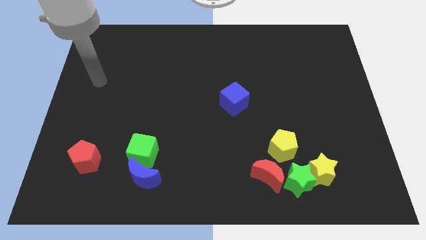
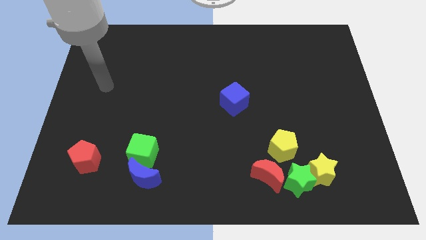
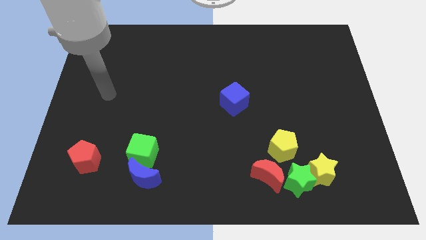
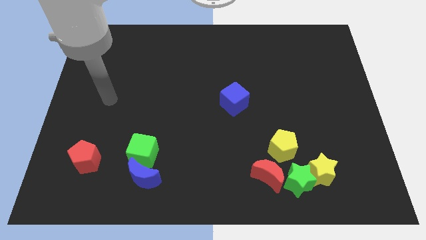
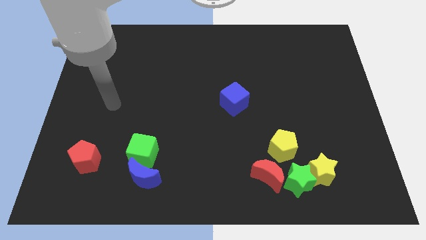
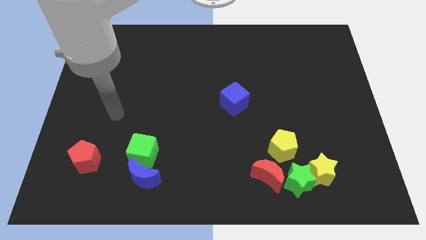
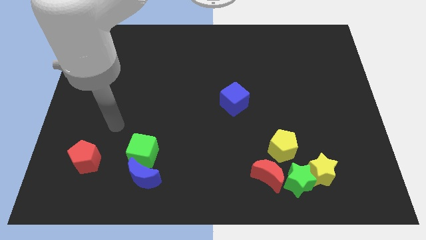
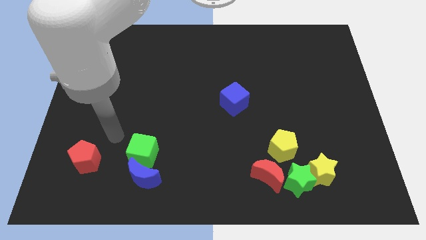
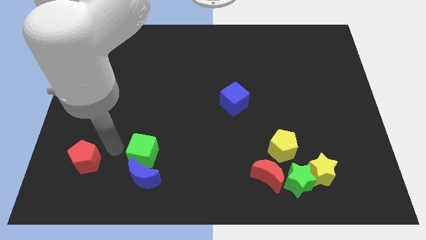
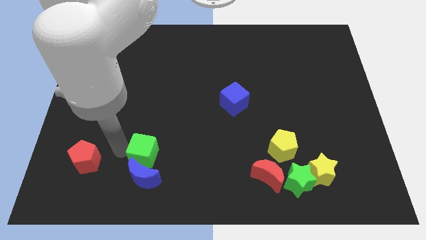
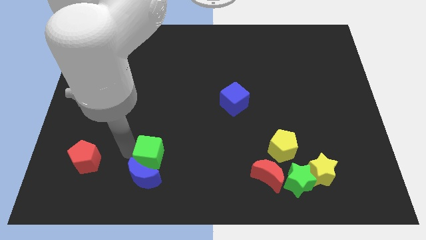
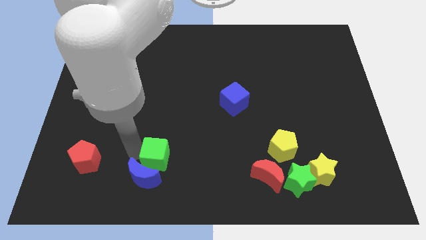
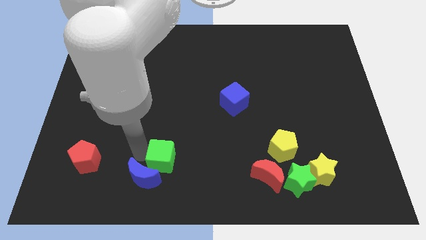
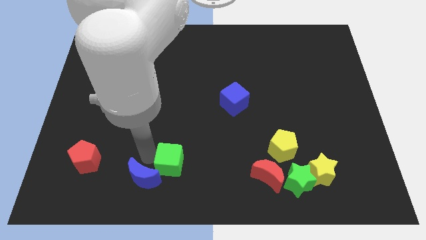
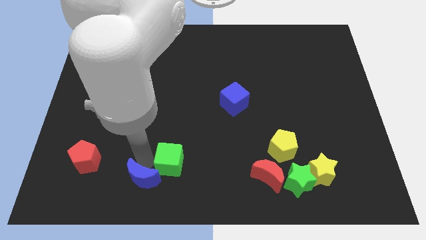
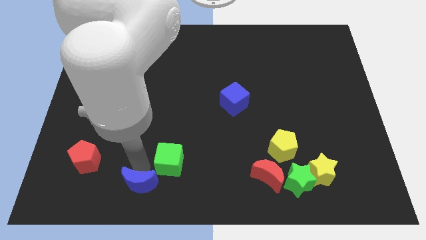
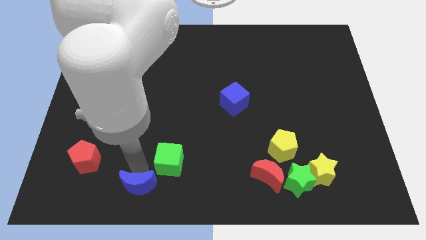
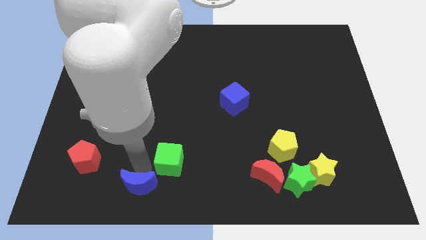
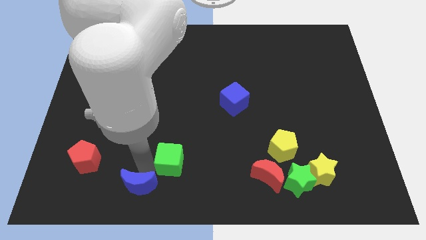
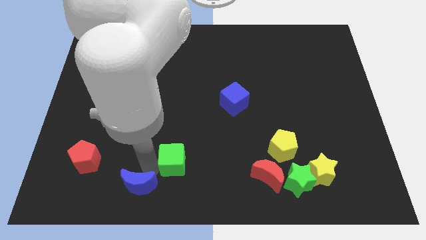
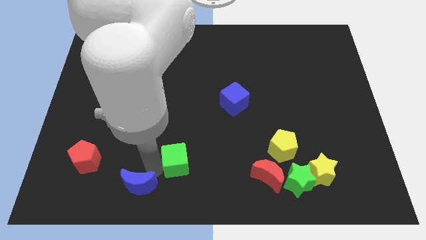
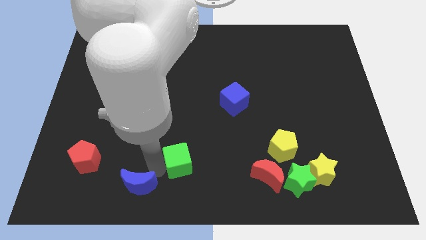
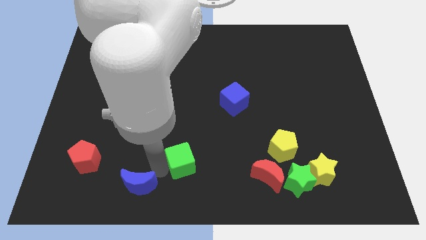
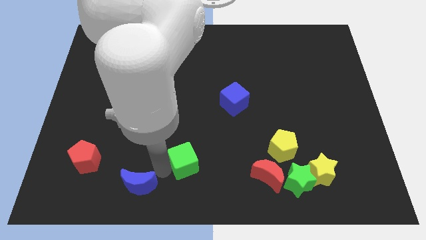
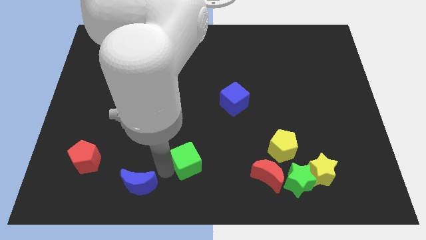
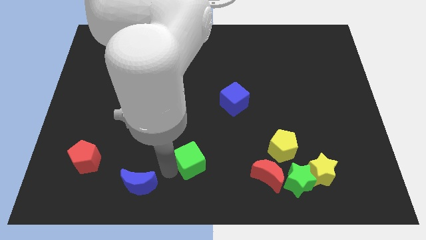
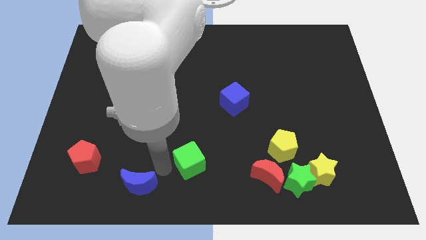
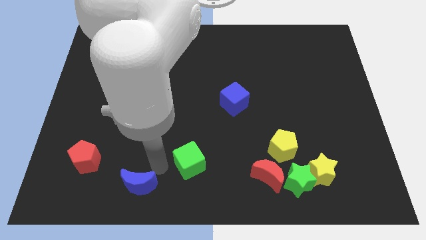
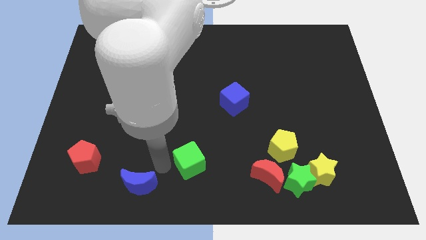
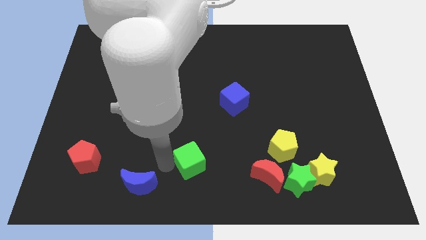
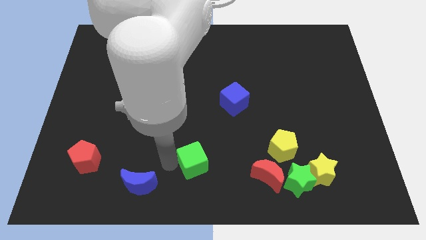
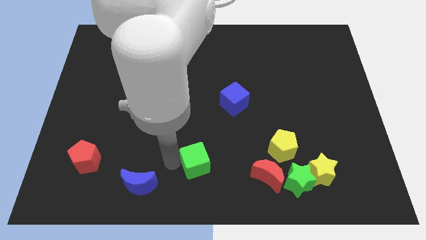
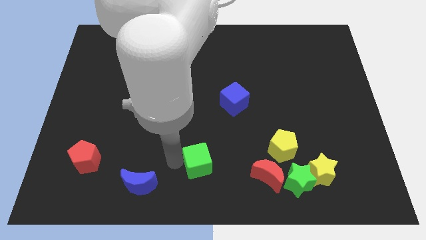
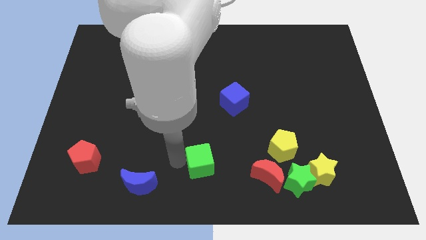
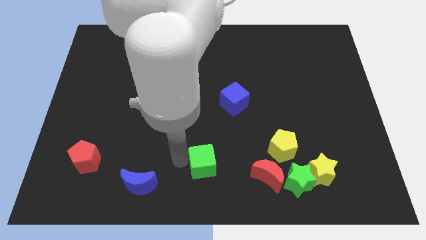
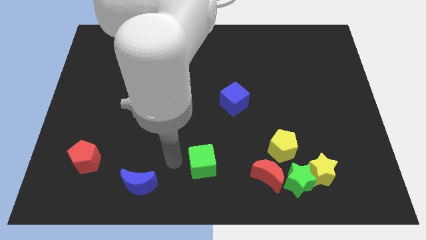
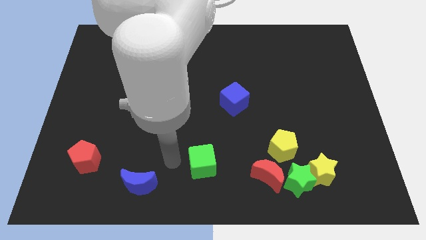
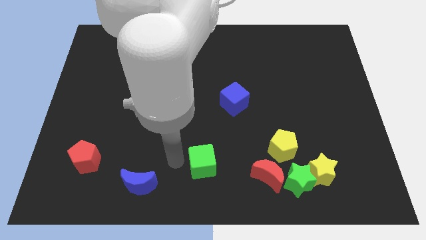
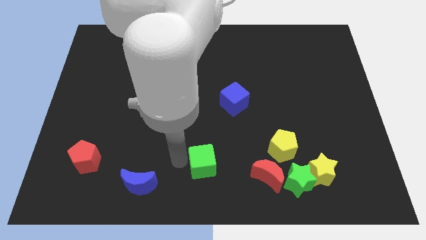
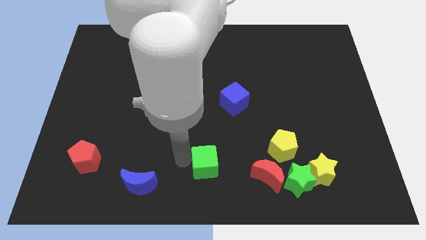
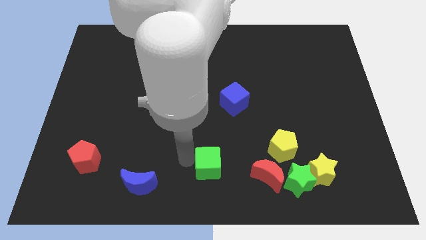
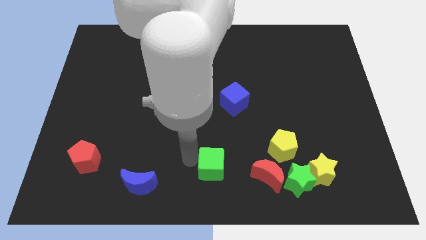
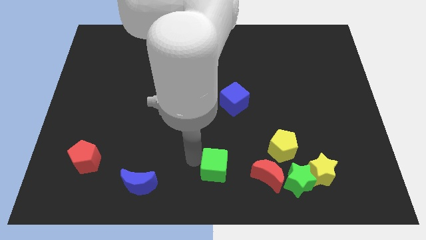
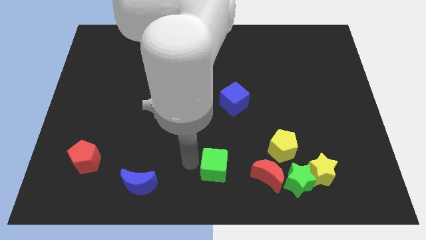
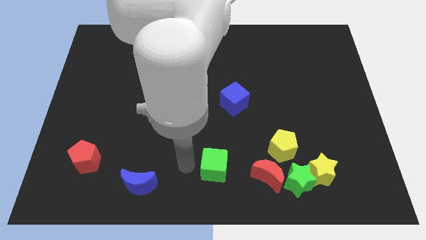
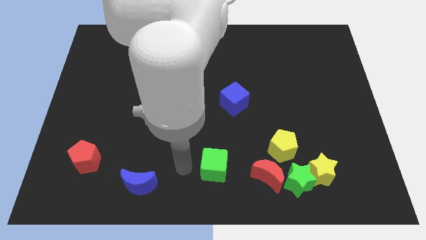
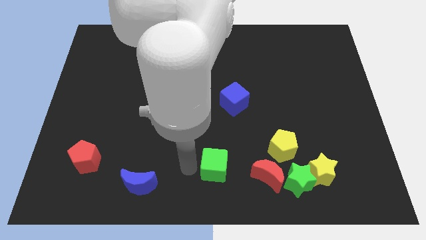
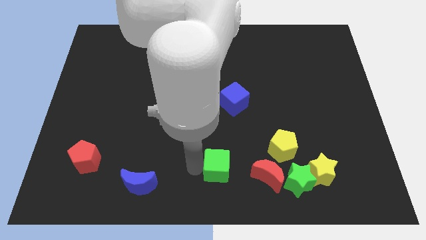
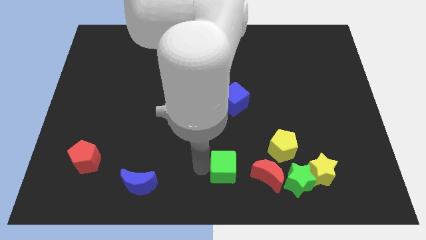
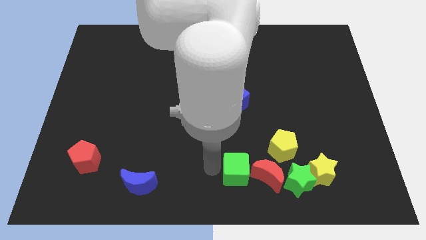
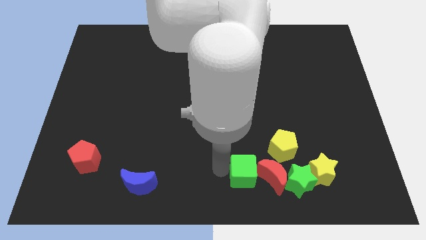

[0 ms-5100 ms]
move the green cube to the red moon

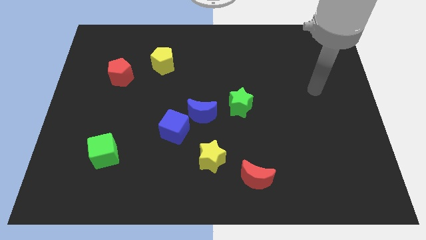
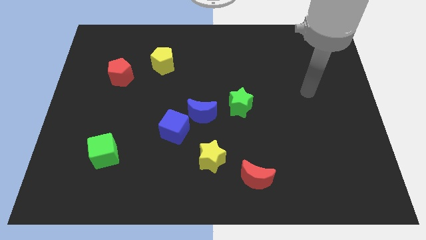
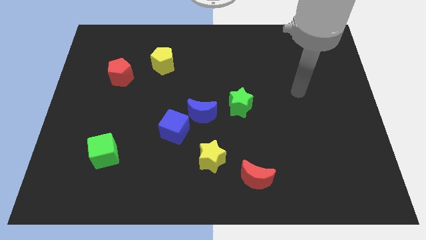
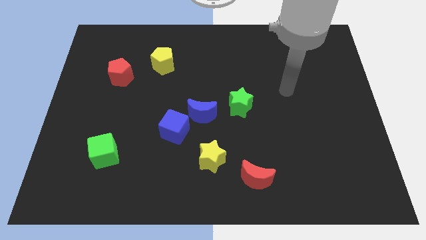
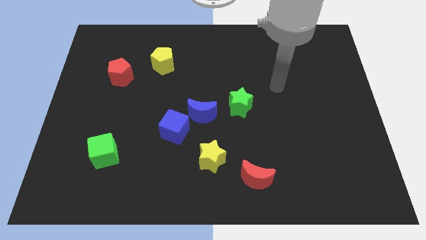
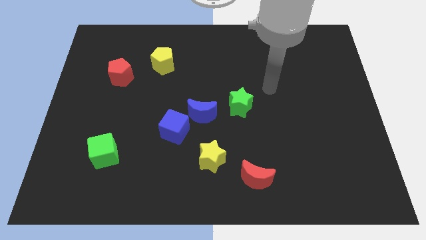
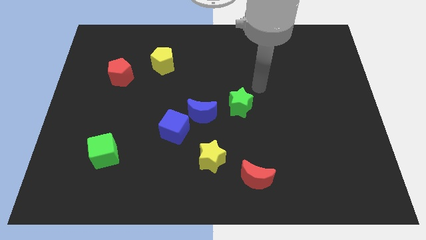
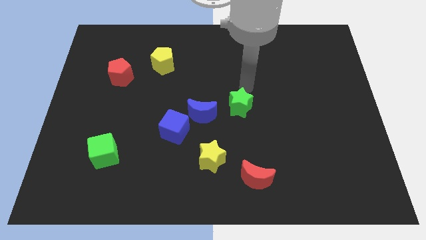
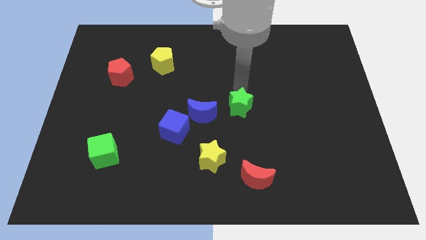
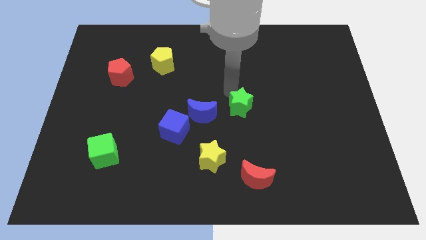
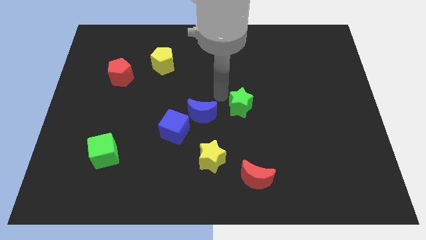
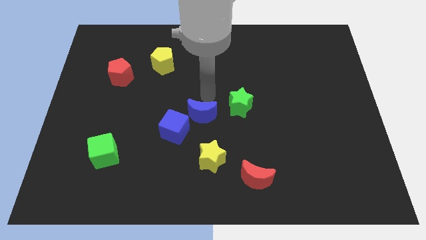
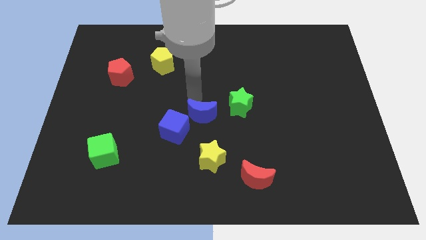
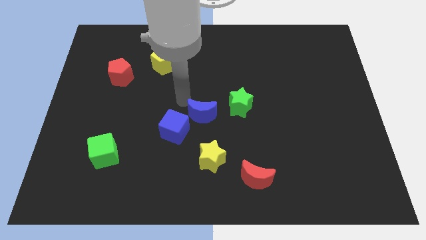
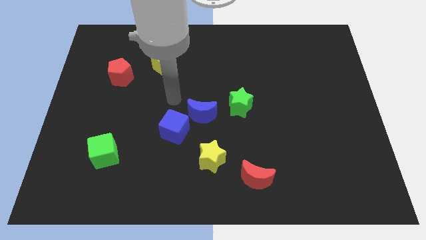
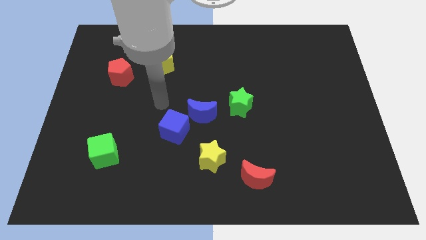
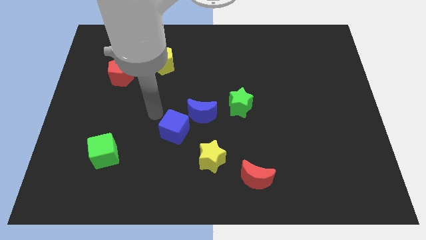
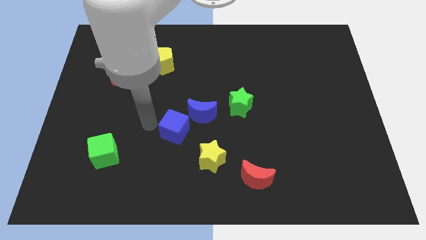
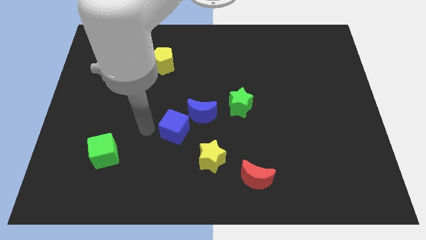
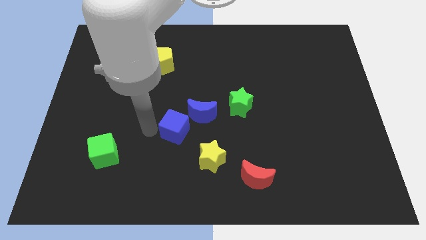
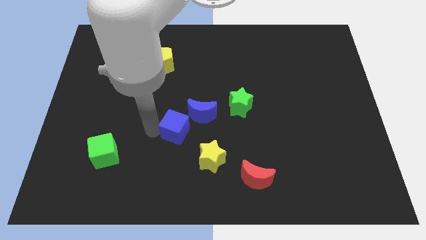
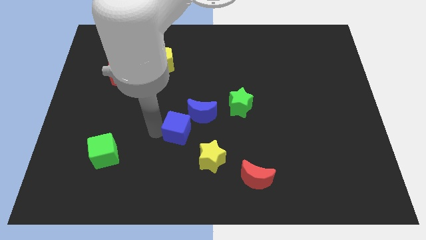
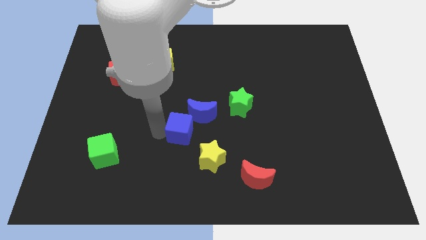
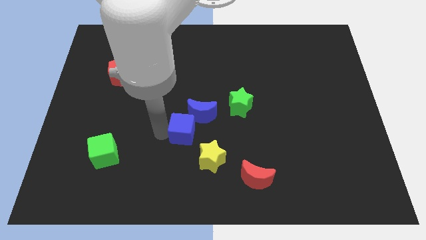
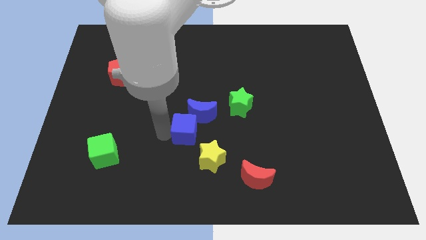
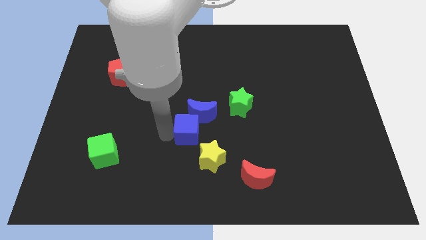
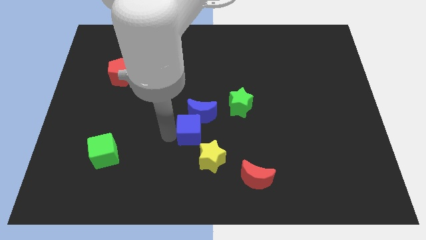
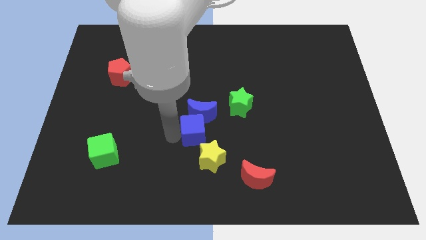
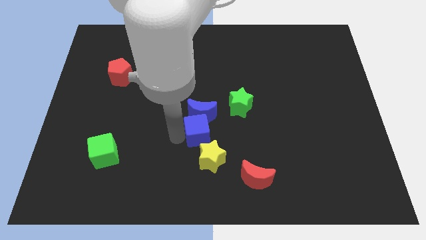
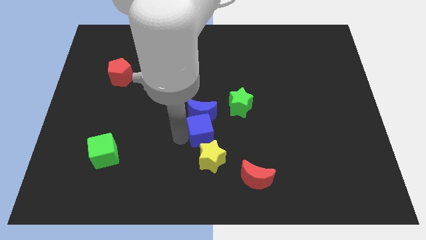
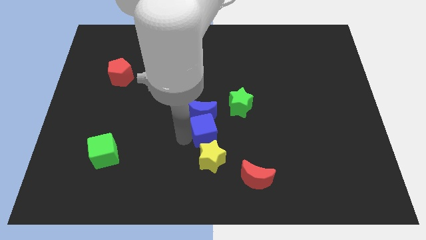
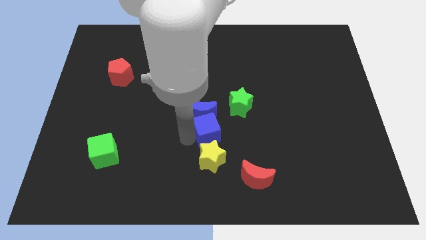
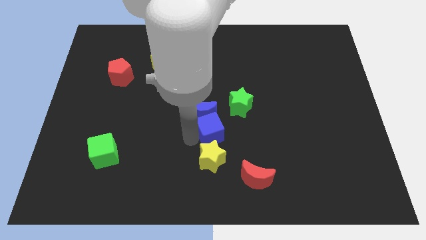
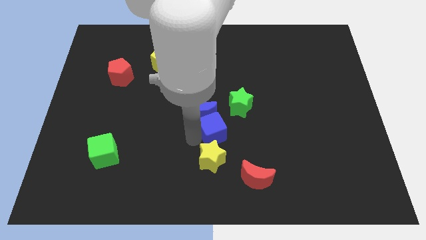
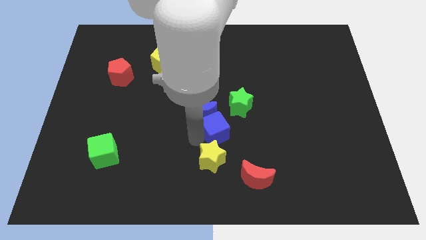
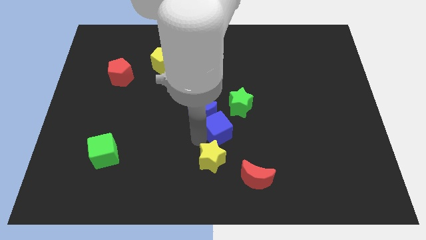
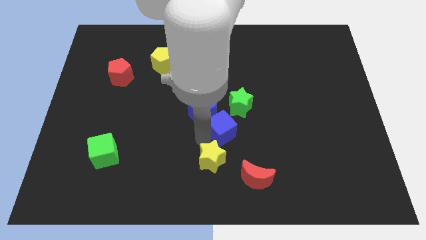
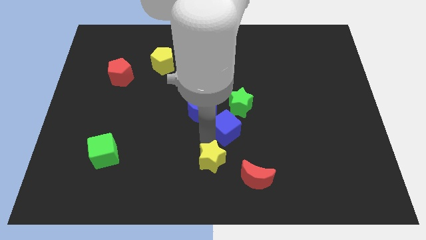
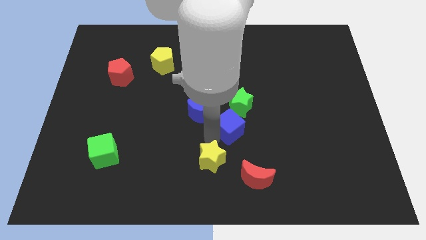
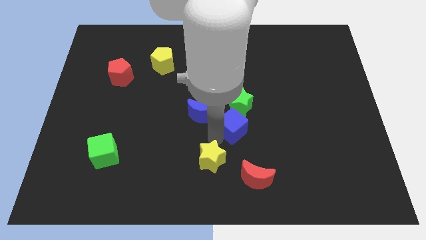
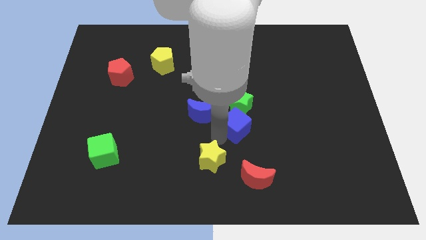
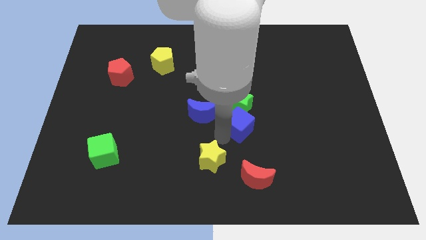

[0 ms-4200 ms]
put the blue cube next to the green star
